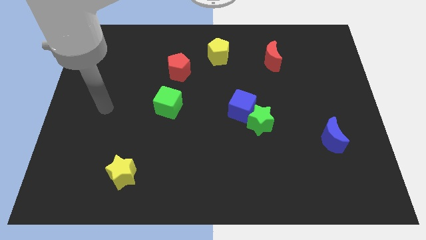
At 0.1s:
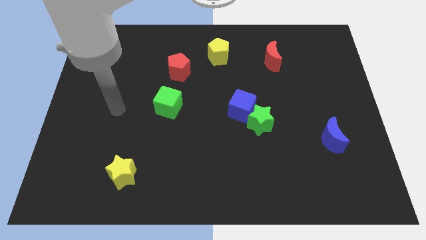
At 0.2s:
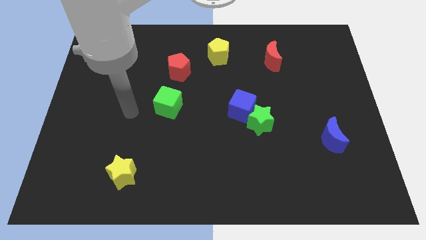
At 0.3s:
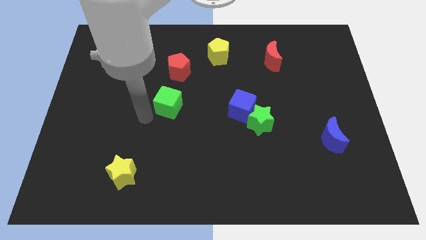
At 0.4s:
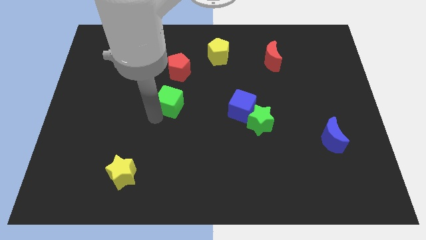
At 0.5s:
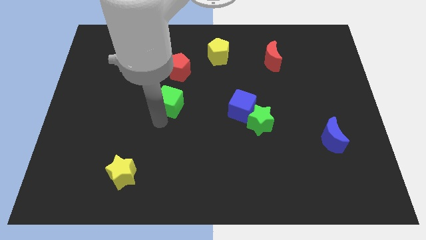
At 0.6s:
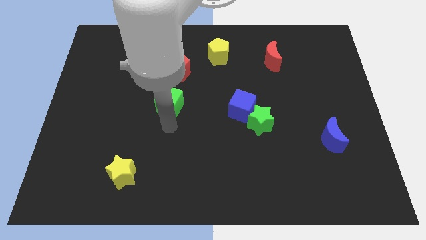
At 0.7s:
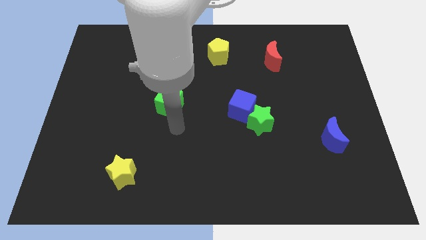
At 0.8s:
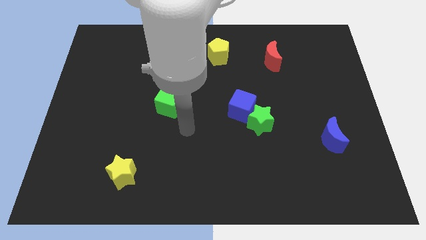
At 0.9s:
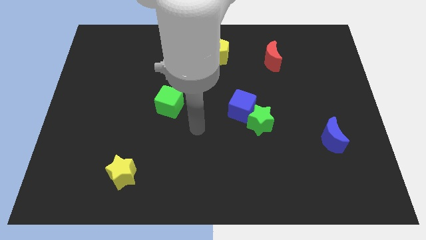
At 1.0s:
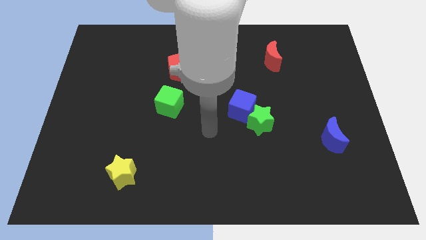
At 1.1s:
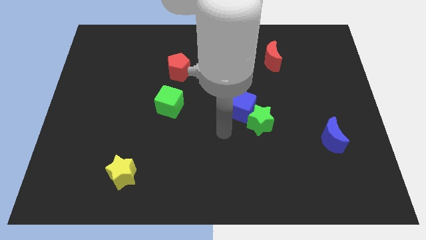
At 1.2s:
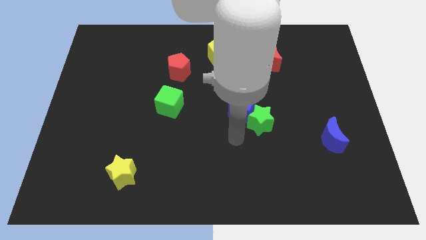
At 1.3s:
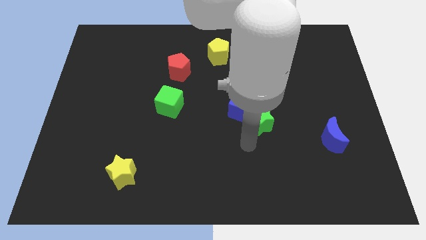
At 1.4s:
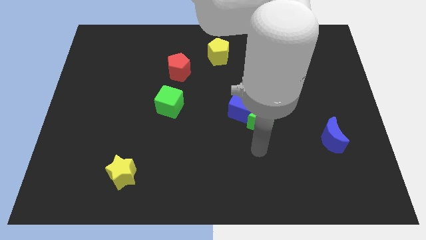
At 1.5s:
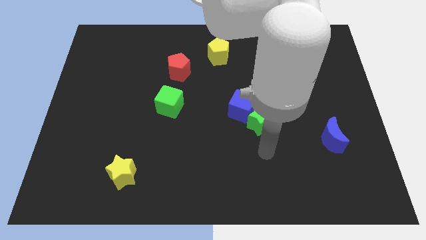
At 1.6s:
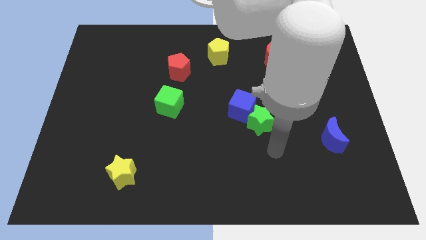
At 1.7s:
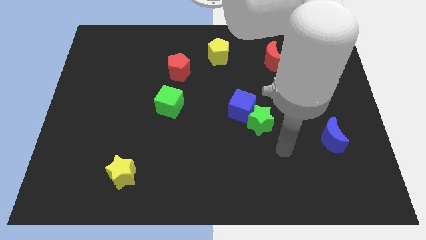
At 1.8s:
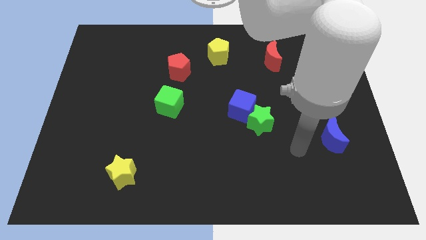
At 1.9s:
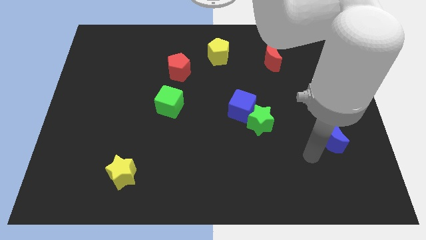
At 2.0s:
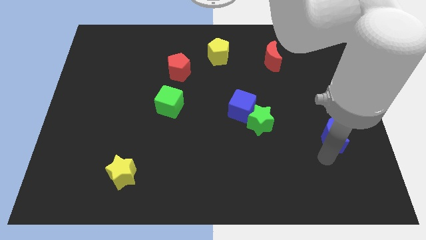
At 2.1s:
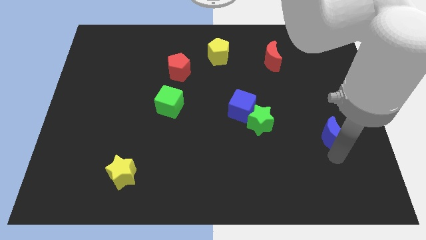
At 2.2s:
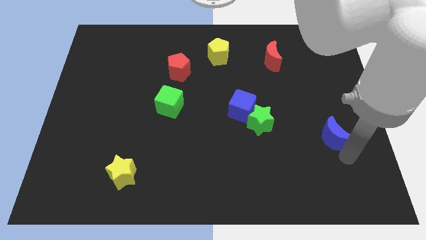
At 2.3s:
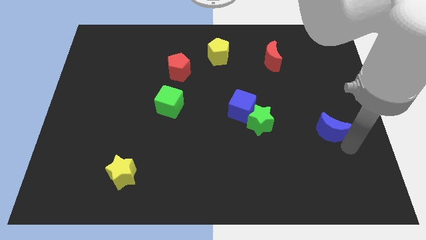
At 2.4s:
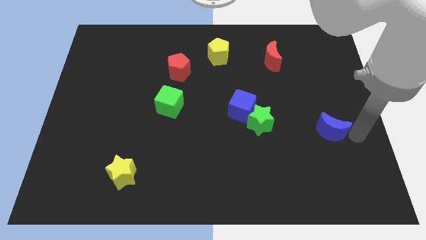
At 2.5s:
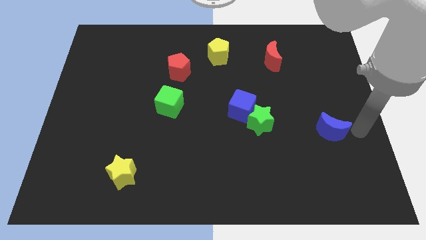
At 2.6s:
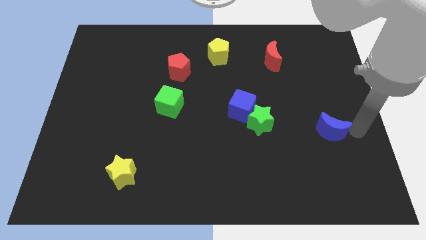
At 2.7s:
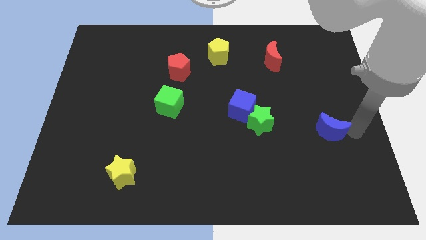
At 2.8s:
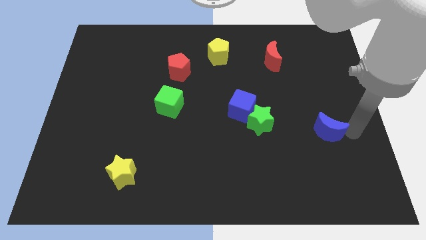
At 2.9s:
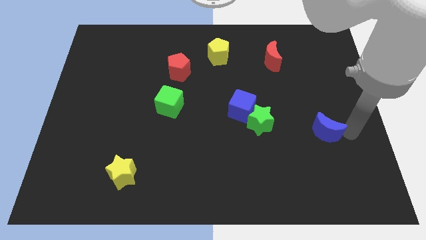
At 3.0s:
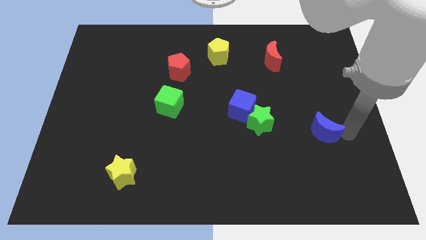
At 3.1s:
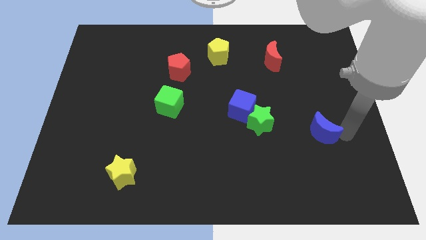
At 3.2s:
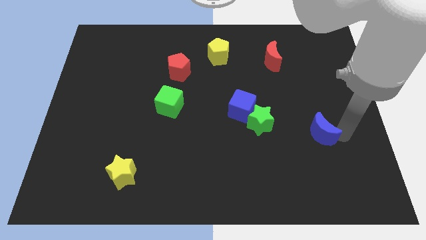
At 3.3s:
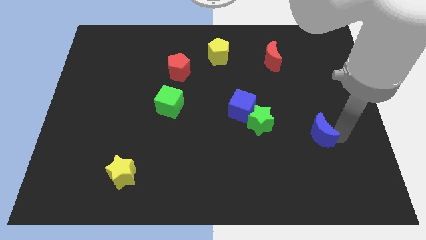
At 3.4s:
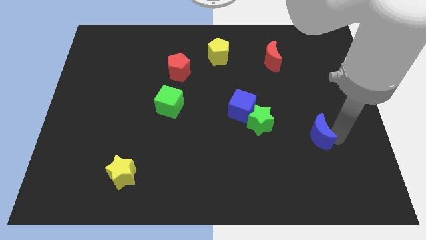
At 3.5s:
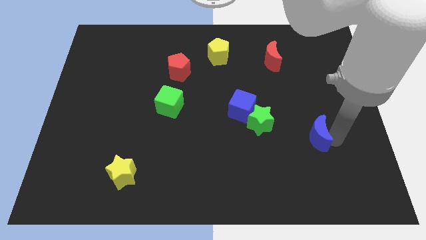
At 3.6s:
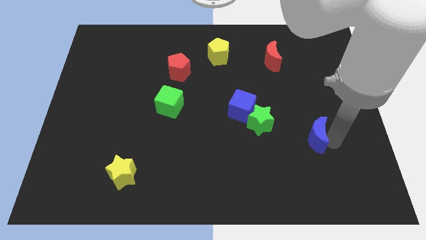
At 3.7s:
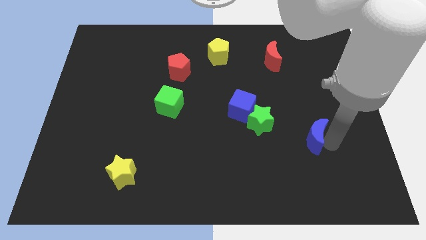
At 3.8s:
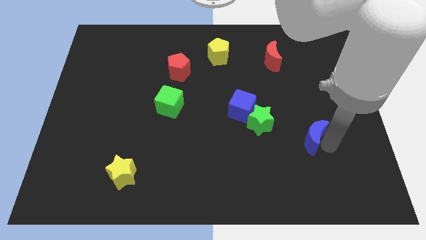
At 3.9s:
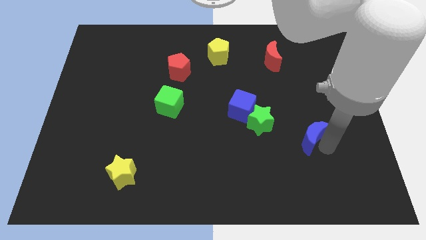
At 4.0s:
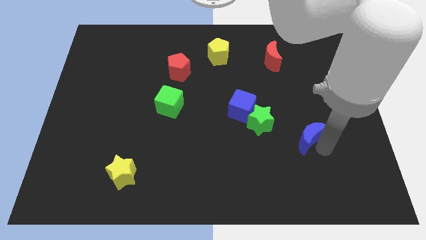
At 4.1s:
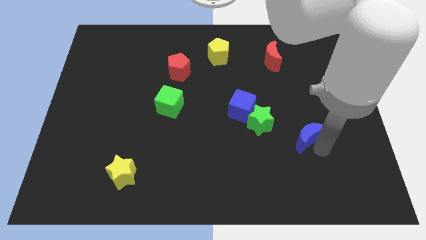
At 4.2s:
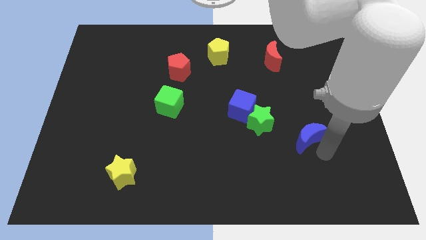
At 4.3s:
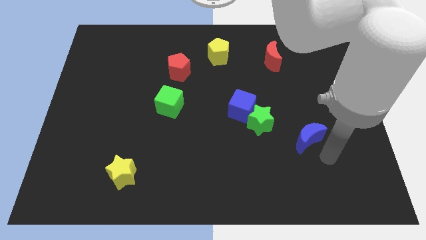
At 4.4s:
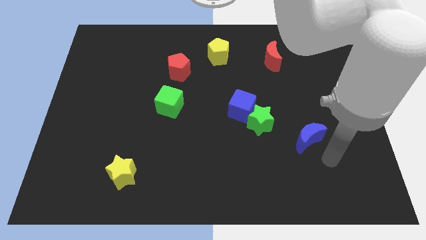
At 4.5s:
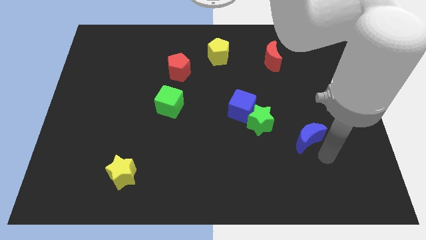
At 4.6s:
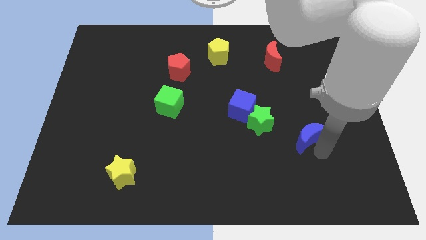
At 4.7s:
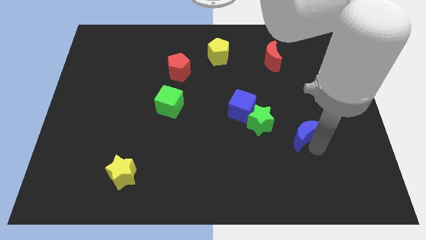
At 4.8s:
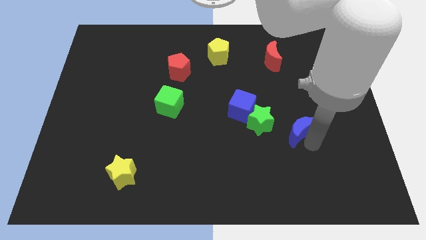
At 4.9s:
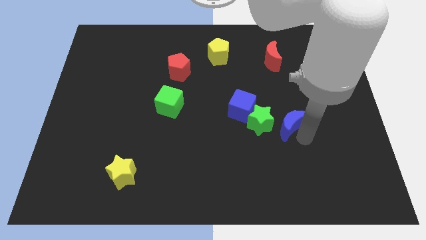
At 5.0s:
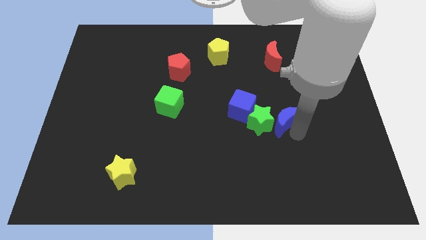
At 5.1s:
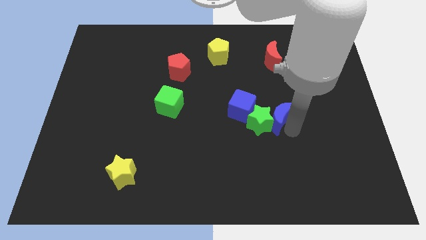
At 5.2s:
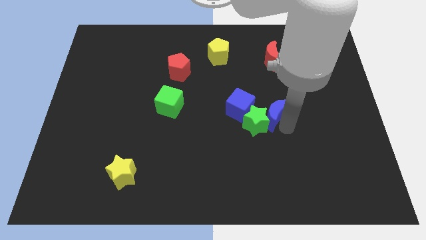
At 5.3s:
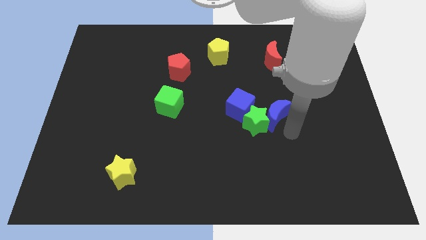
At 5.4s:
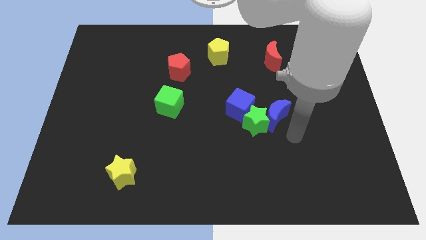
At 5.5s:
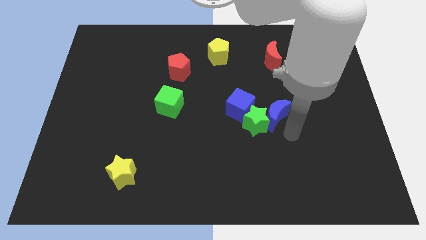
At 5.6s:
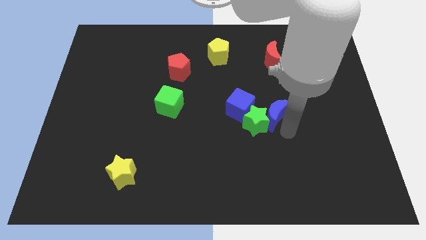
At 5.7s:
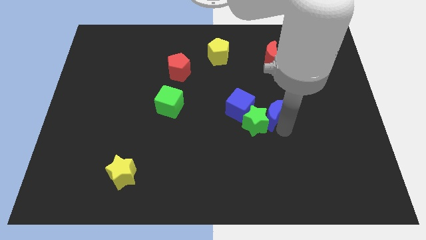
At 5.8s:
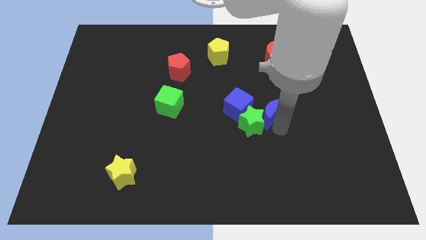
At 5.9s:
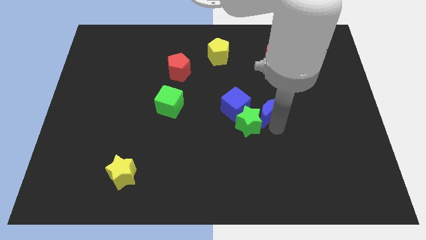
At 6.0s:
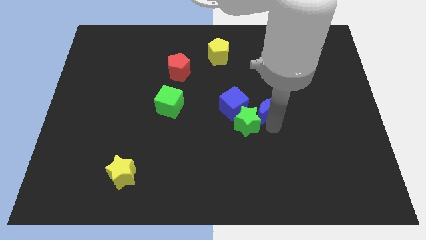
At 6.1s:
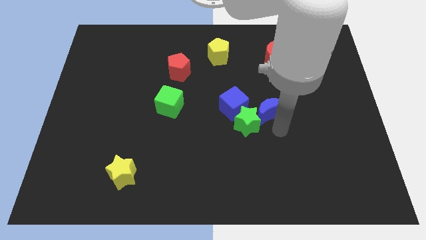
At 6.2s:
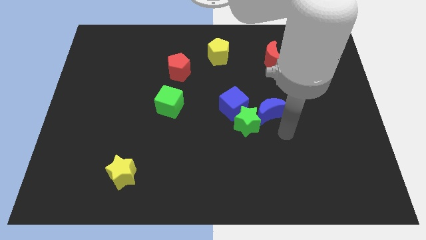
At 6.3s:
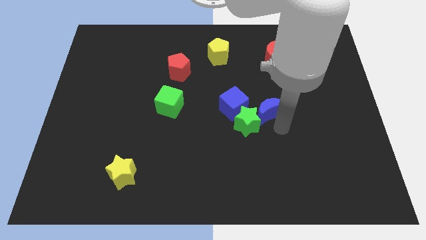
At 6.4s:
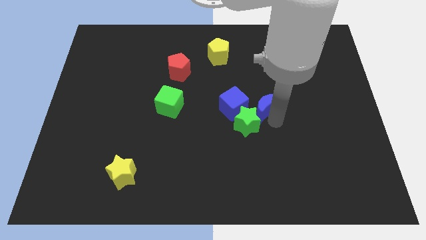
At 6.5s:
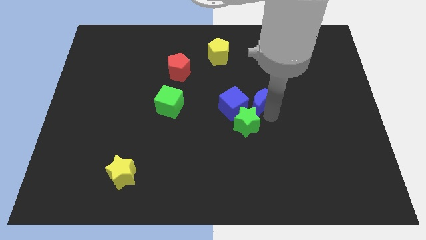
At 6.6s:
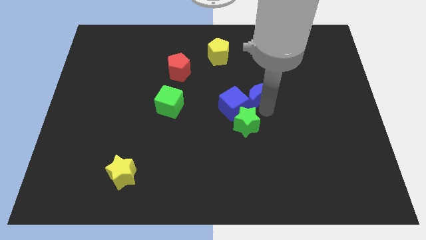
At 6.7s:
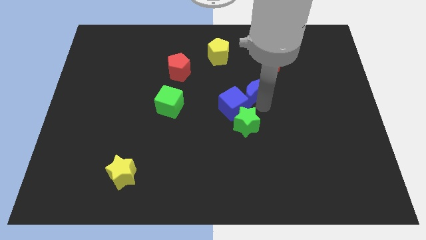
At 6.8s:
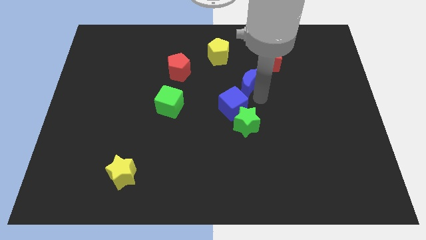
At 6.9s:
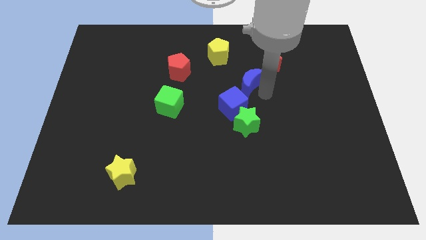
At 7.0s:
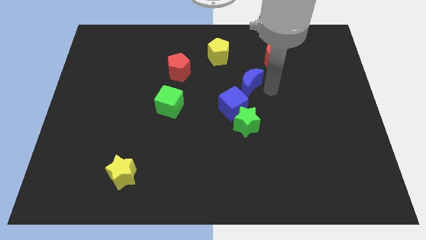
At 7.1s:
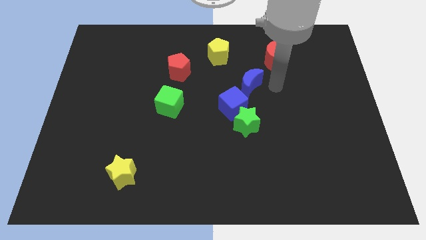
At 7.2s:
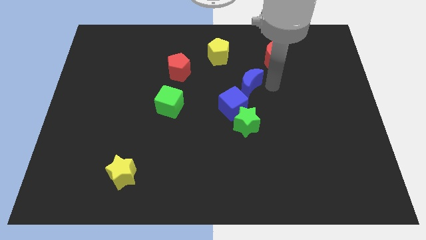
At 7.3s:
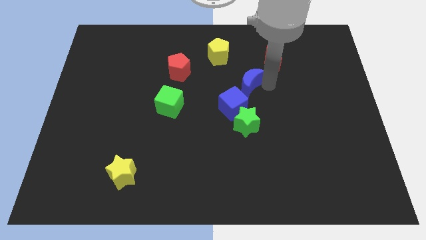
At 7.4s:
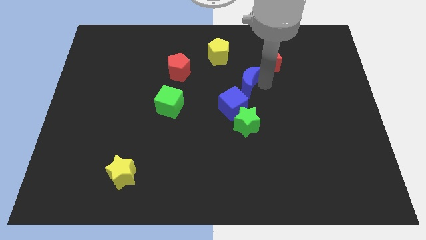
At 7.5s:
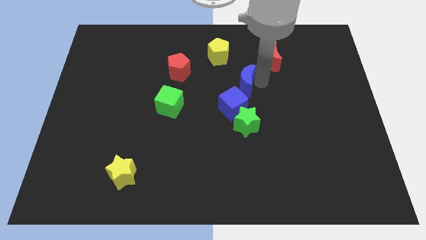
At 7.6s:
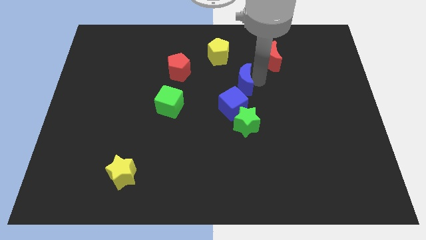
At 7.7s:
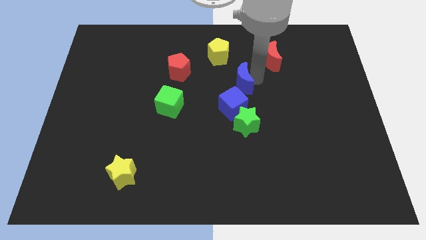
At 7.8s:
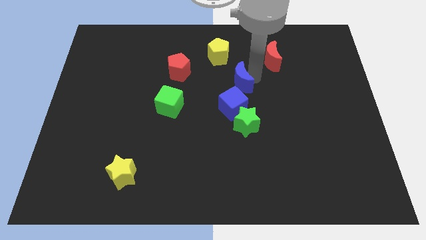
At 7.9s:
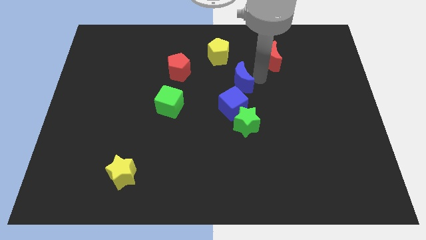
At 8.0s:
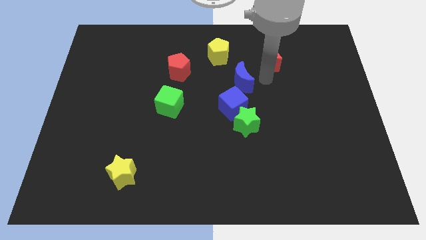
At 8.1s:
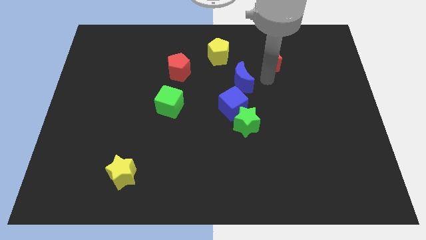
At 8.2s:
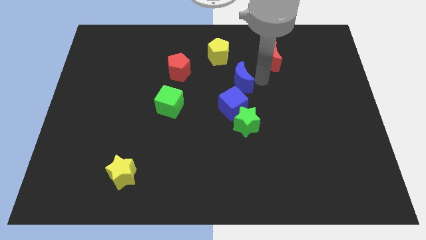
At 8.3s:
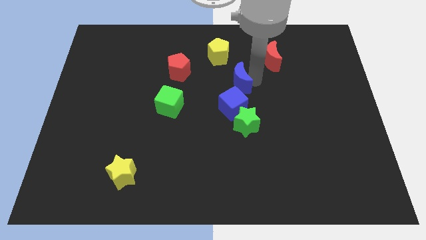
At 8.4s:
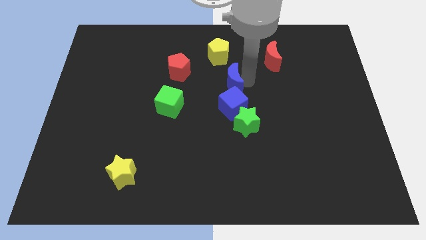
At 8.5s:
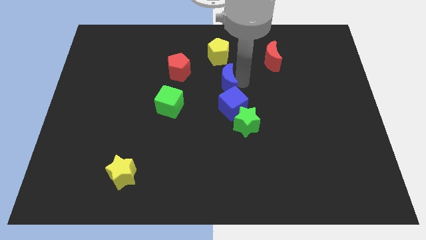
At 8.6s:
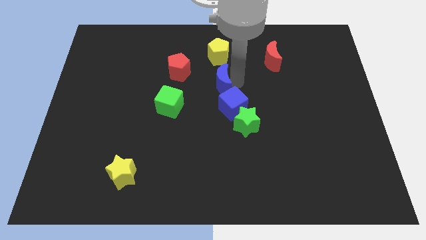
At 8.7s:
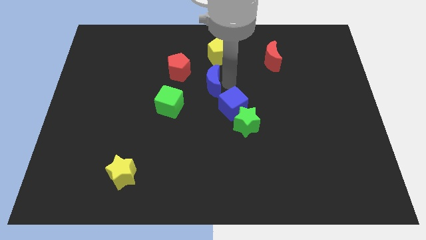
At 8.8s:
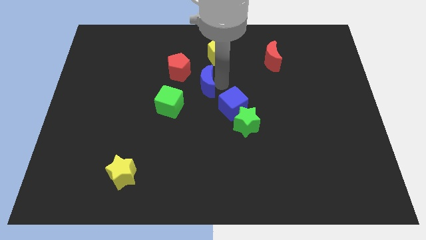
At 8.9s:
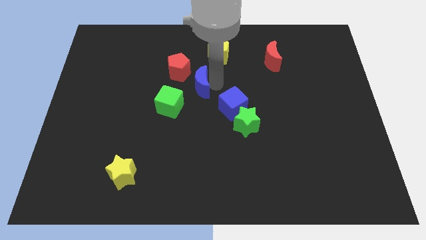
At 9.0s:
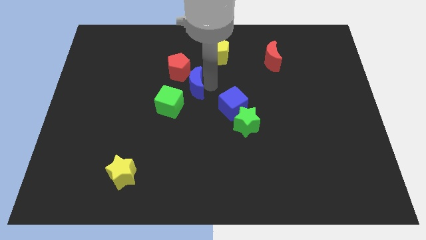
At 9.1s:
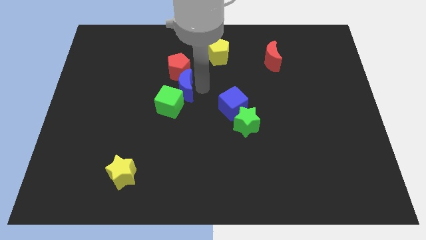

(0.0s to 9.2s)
push the blue moon to the top side of the green cube
